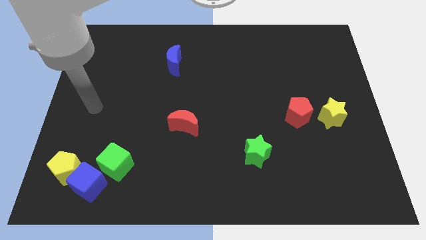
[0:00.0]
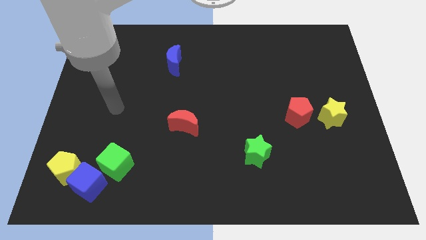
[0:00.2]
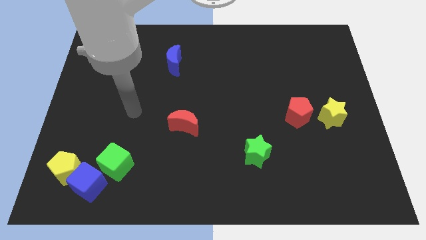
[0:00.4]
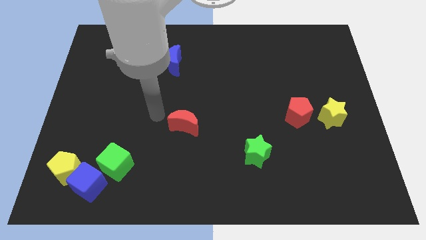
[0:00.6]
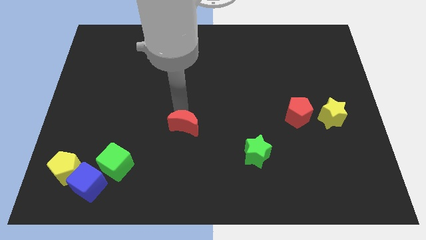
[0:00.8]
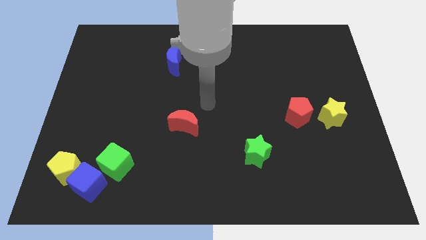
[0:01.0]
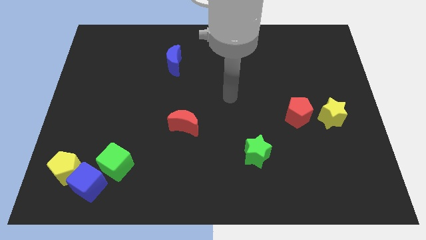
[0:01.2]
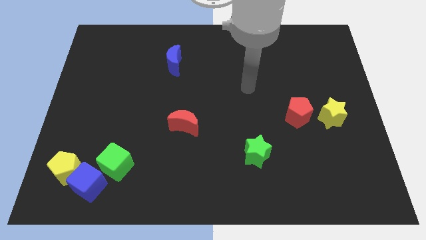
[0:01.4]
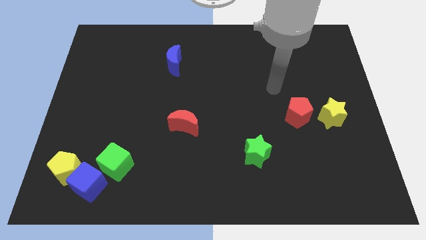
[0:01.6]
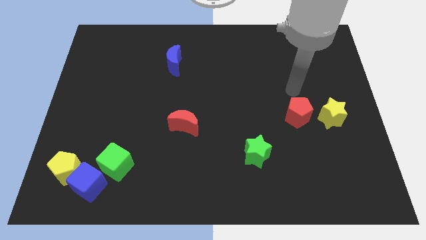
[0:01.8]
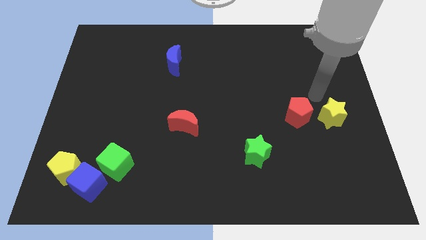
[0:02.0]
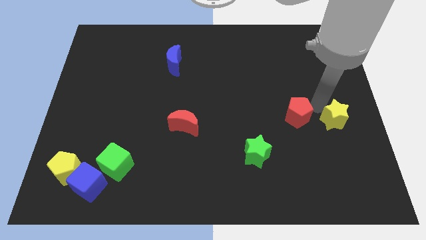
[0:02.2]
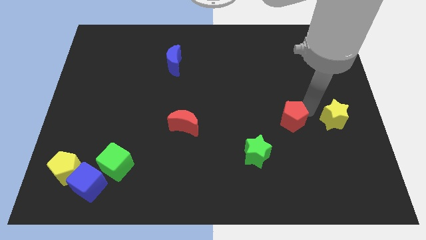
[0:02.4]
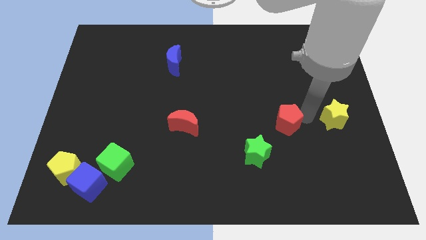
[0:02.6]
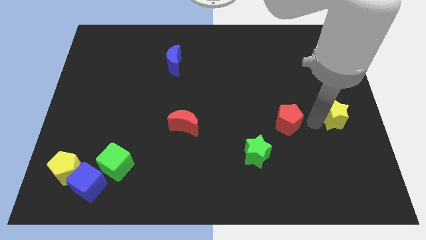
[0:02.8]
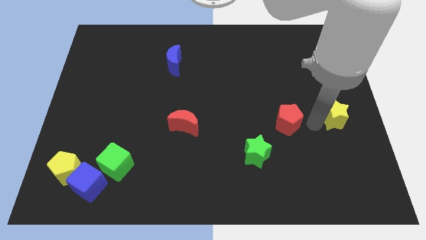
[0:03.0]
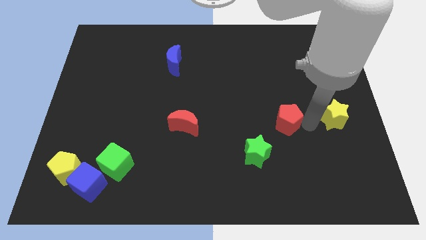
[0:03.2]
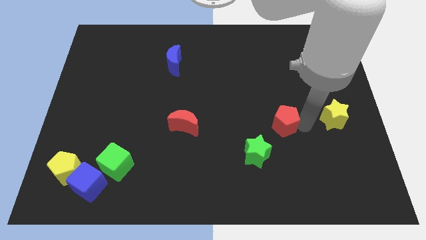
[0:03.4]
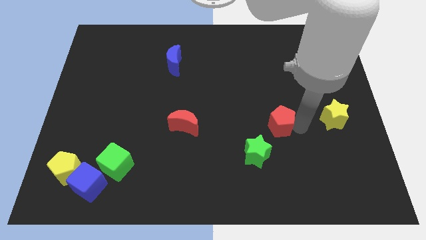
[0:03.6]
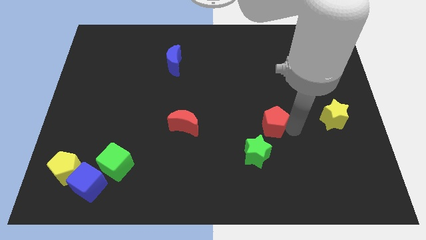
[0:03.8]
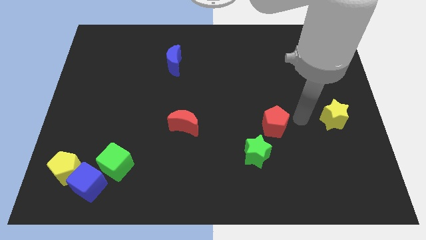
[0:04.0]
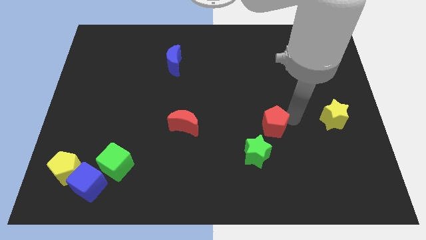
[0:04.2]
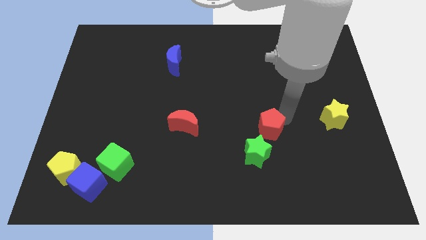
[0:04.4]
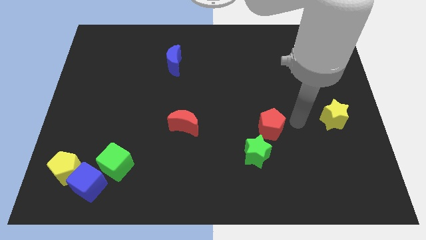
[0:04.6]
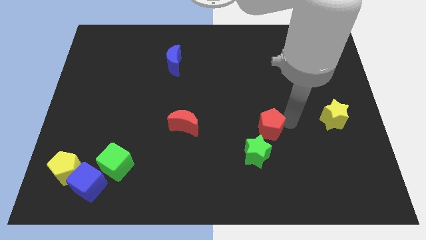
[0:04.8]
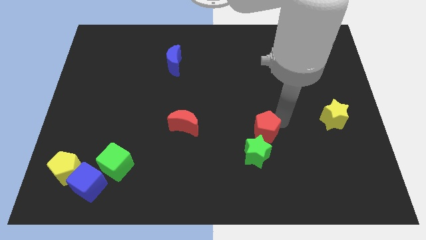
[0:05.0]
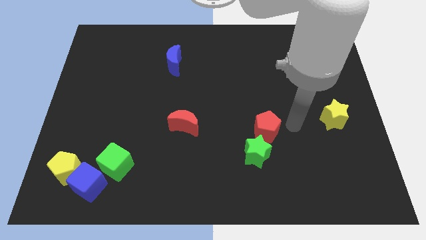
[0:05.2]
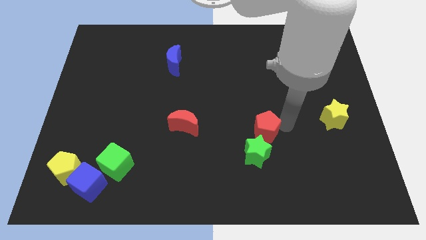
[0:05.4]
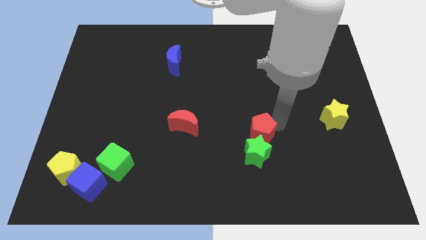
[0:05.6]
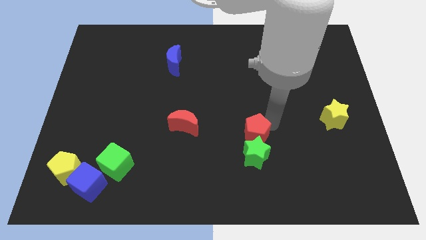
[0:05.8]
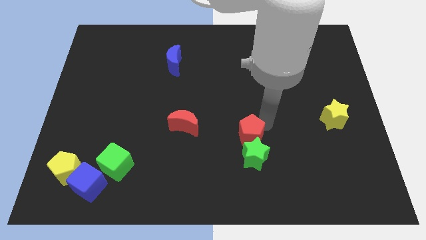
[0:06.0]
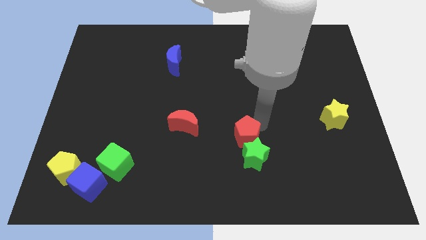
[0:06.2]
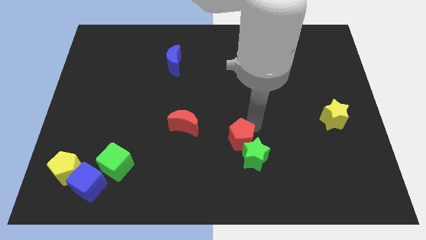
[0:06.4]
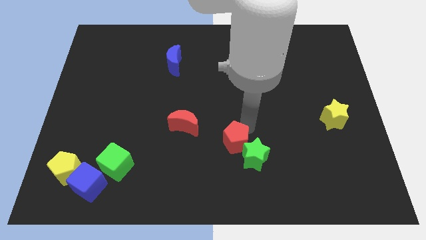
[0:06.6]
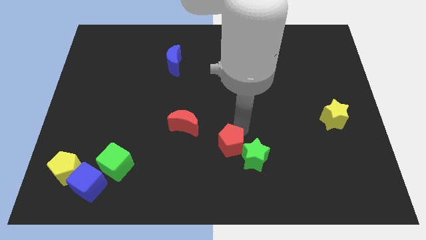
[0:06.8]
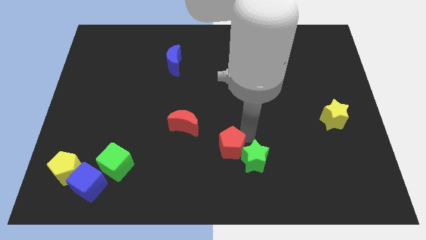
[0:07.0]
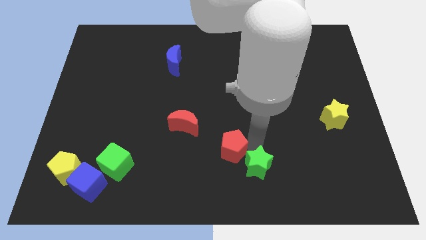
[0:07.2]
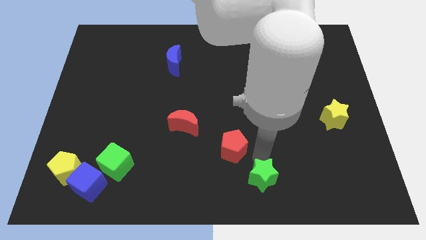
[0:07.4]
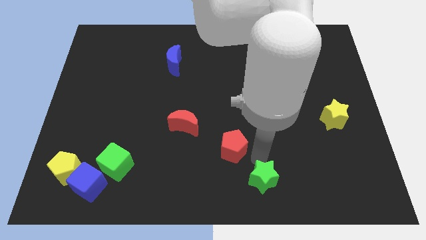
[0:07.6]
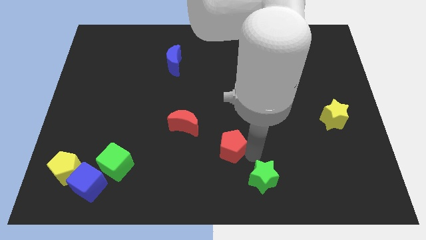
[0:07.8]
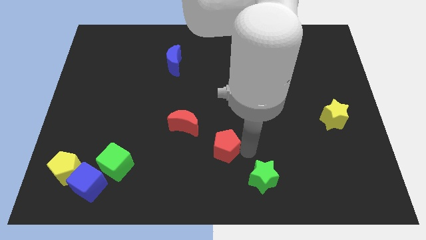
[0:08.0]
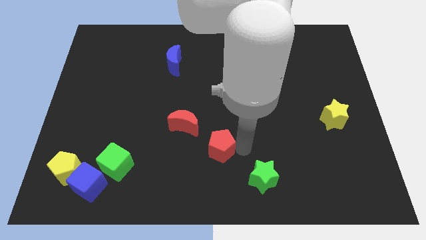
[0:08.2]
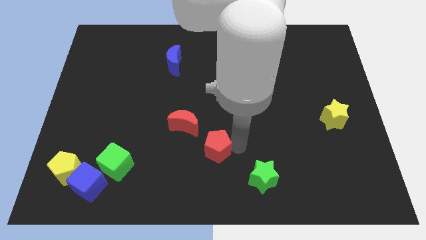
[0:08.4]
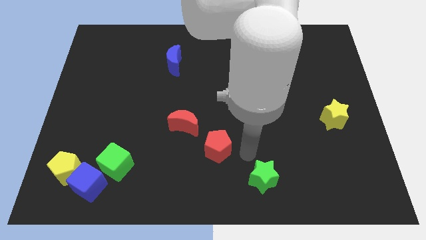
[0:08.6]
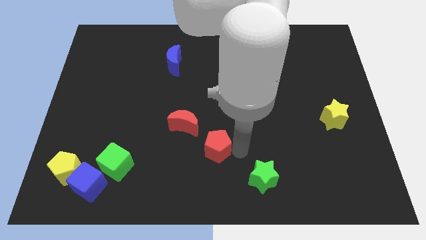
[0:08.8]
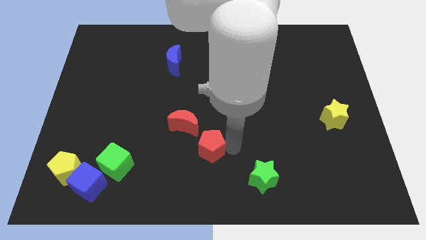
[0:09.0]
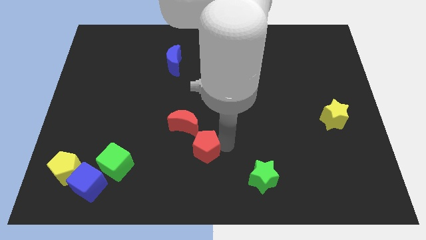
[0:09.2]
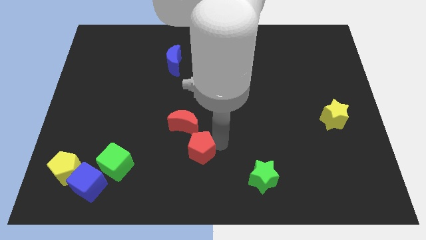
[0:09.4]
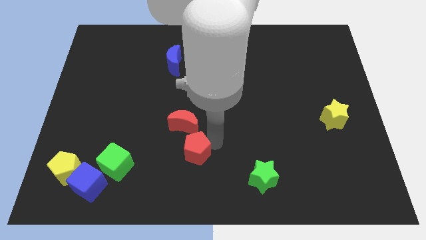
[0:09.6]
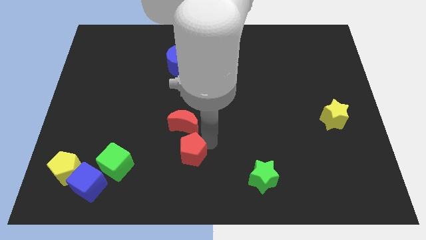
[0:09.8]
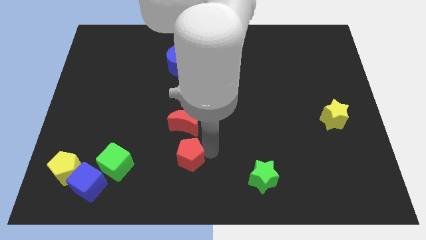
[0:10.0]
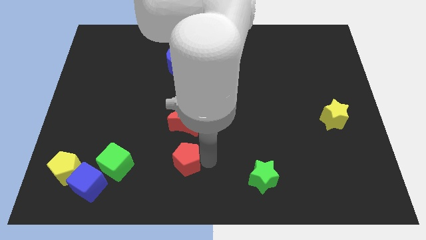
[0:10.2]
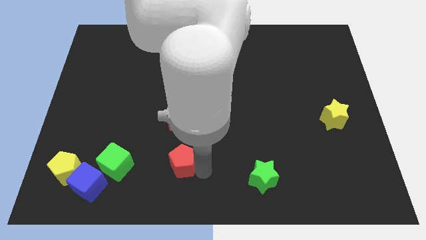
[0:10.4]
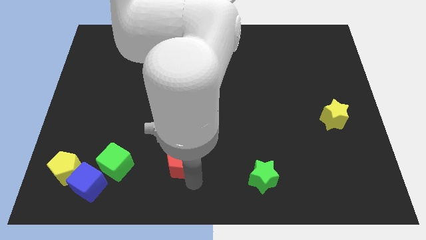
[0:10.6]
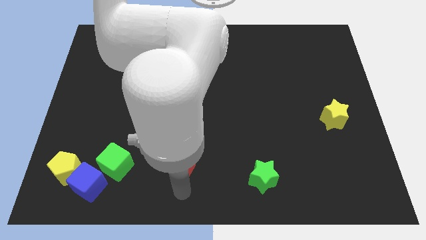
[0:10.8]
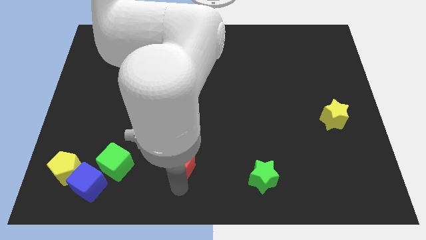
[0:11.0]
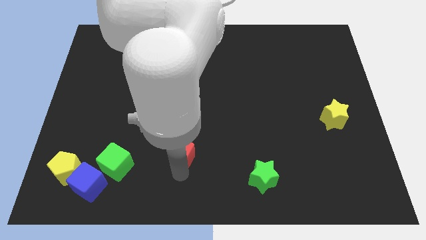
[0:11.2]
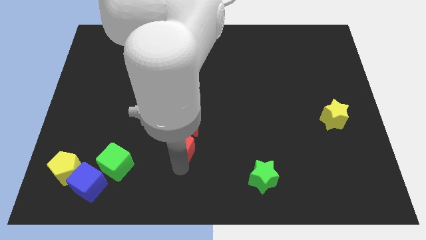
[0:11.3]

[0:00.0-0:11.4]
push the red pentagon to the bottom left side of the red moon

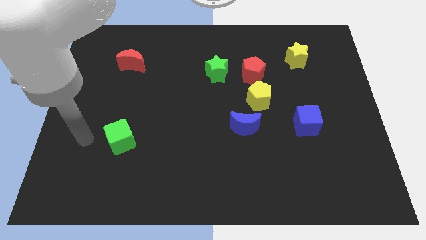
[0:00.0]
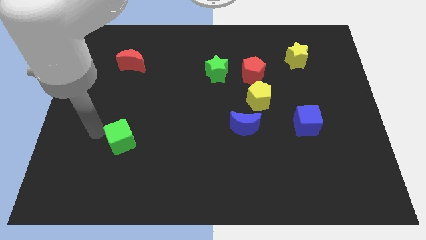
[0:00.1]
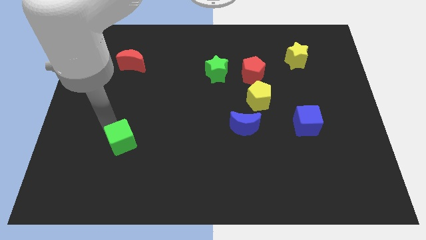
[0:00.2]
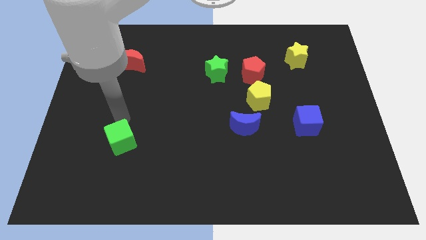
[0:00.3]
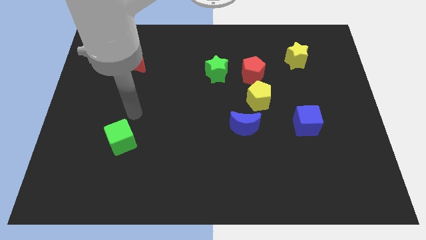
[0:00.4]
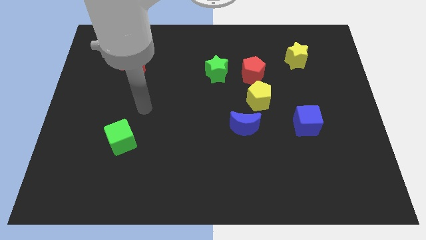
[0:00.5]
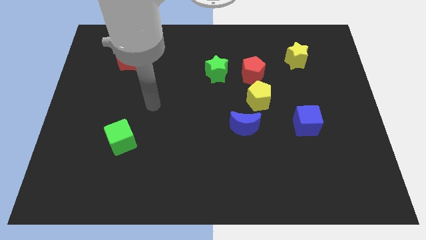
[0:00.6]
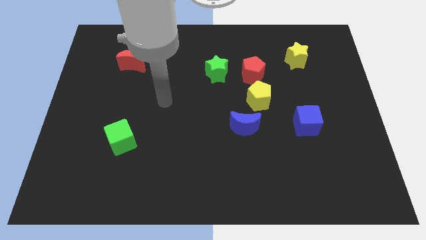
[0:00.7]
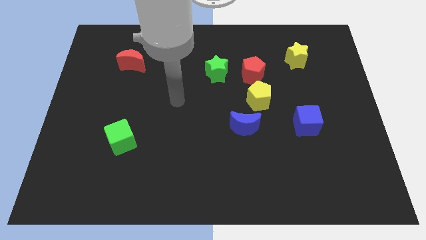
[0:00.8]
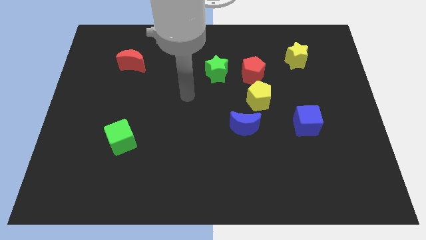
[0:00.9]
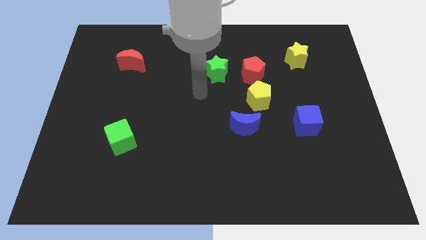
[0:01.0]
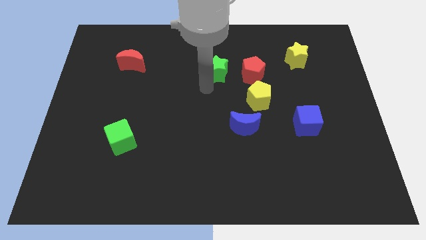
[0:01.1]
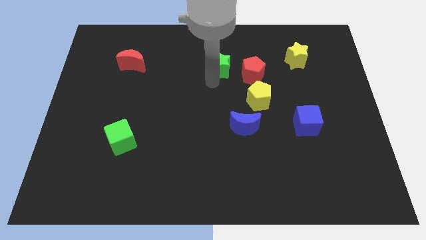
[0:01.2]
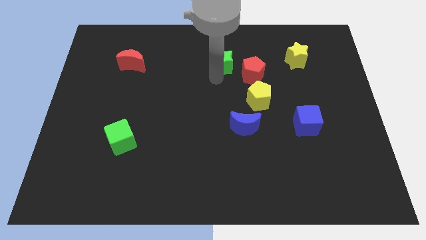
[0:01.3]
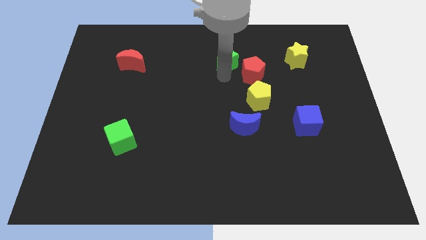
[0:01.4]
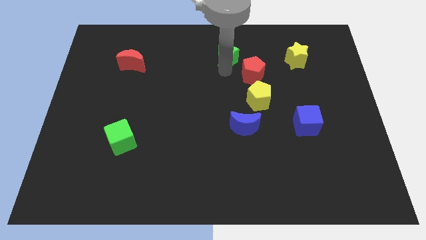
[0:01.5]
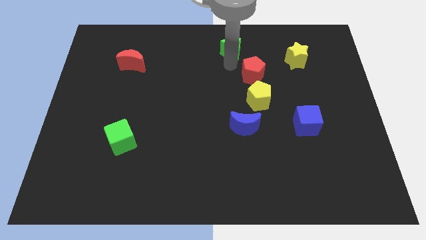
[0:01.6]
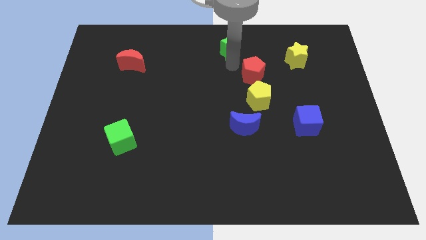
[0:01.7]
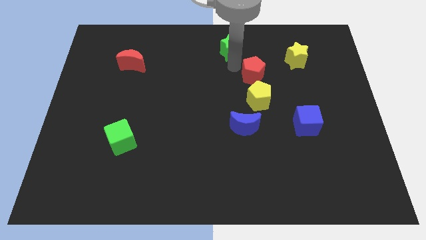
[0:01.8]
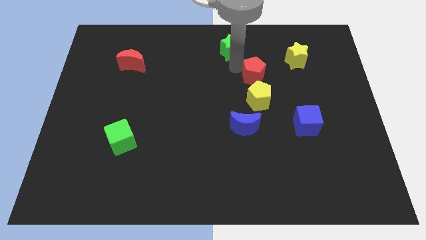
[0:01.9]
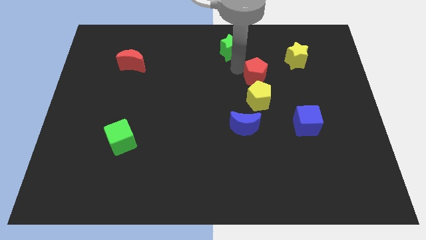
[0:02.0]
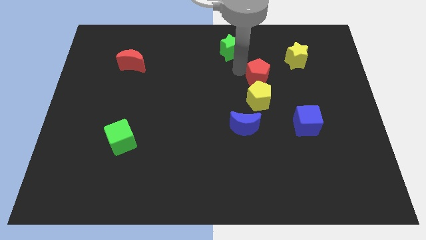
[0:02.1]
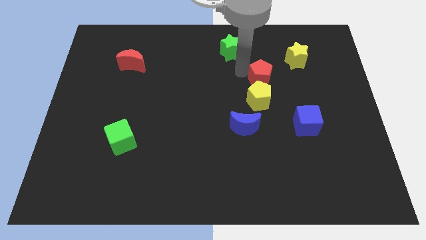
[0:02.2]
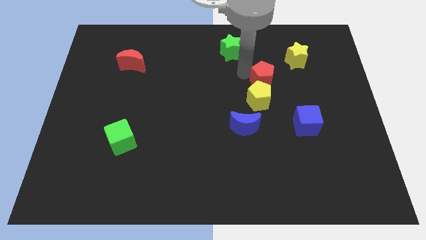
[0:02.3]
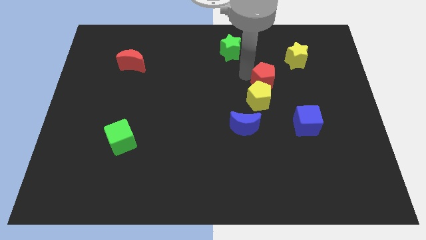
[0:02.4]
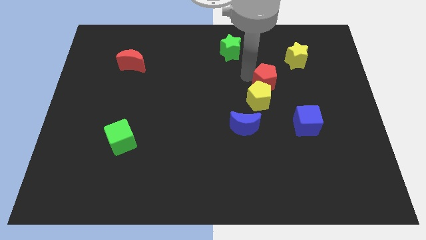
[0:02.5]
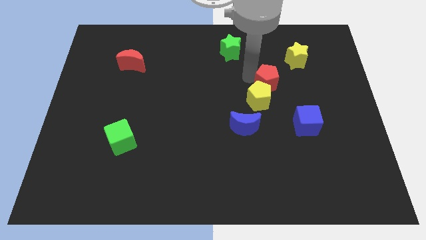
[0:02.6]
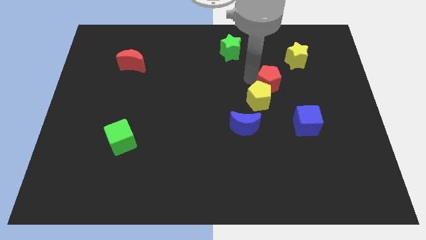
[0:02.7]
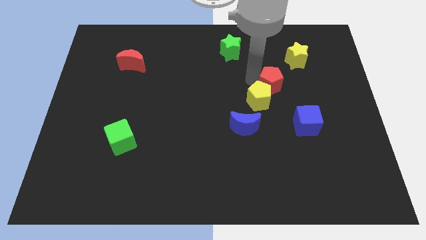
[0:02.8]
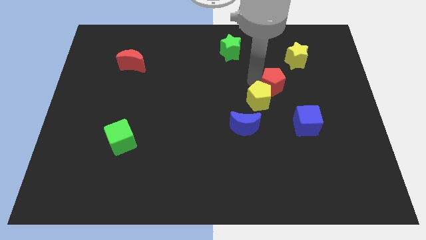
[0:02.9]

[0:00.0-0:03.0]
move the red pentagon just right of the yellow pentagon
